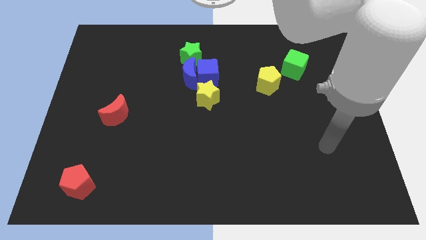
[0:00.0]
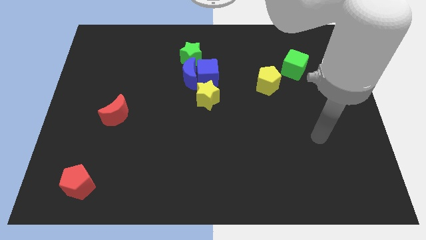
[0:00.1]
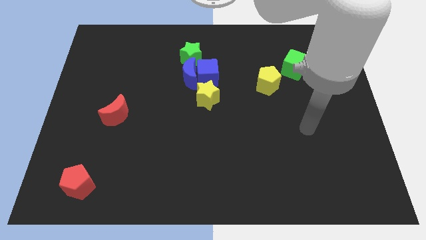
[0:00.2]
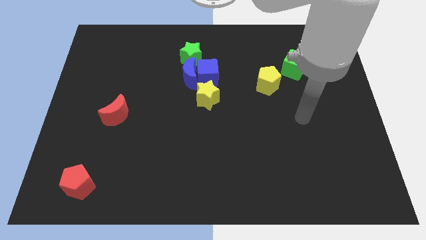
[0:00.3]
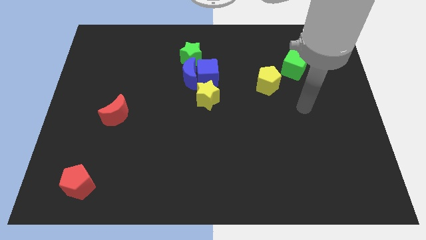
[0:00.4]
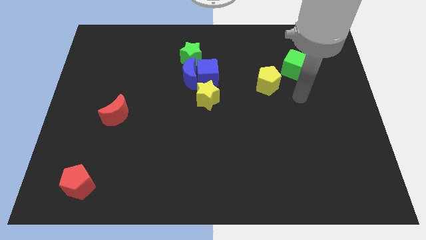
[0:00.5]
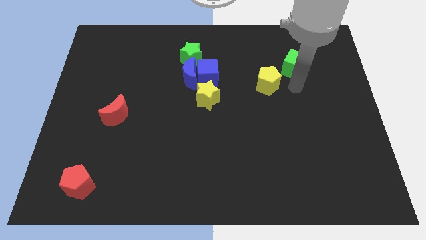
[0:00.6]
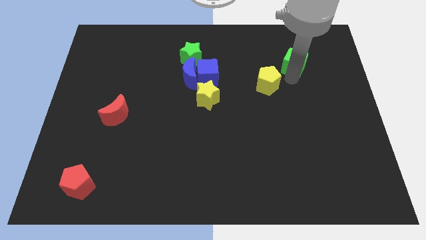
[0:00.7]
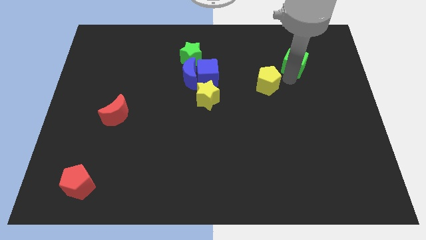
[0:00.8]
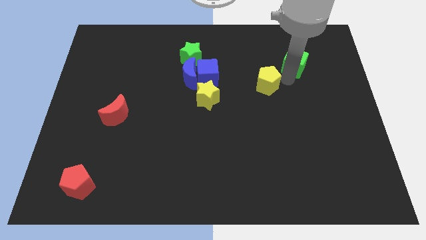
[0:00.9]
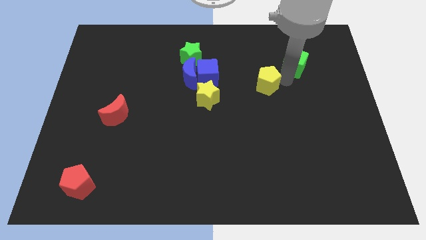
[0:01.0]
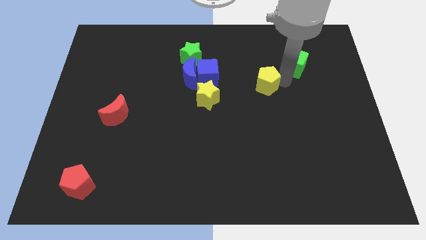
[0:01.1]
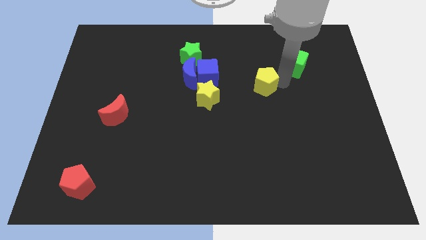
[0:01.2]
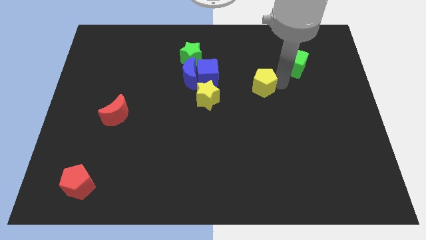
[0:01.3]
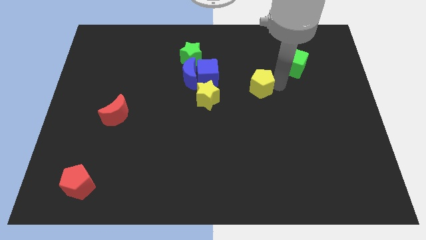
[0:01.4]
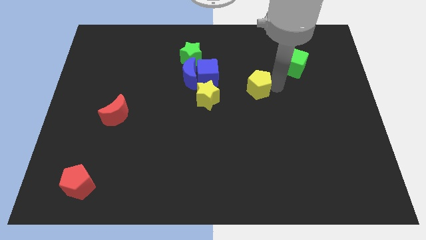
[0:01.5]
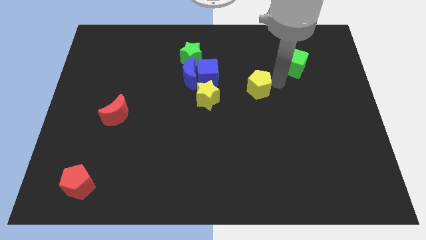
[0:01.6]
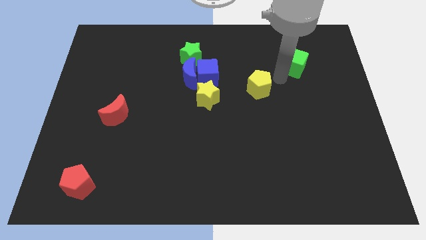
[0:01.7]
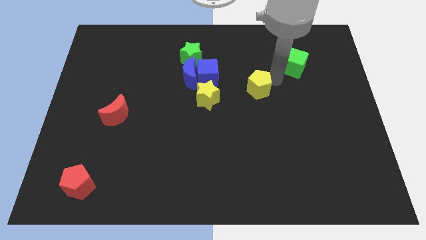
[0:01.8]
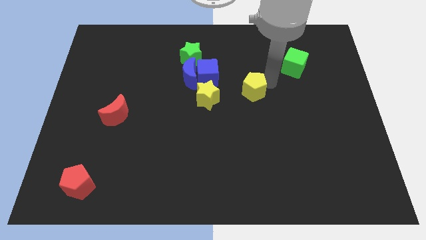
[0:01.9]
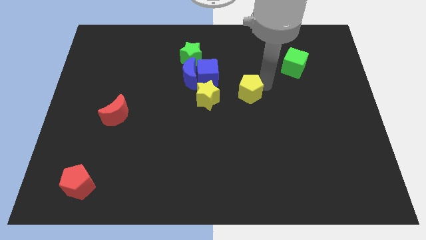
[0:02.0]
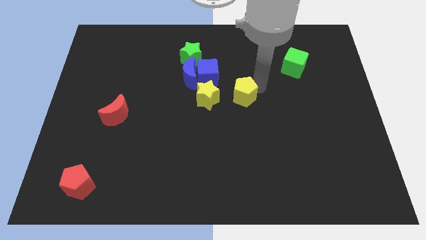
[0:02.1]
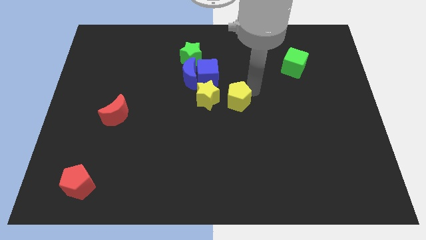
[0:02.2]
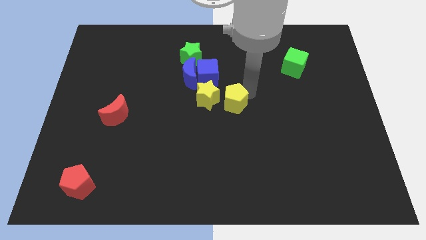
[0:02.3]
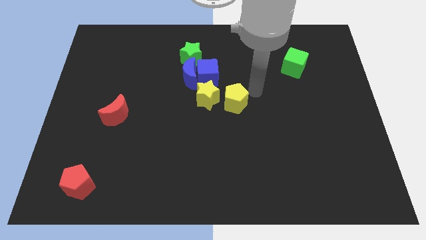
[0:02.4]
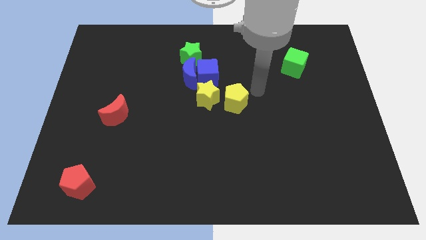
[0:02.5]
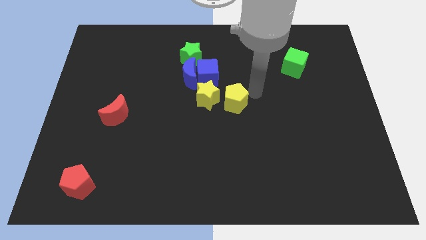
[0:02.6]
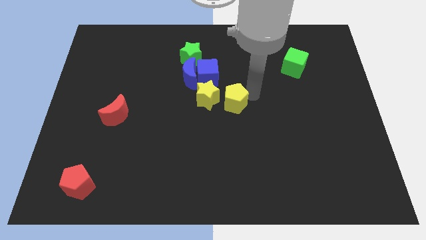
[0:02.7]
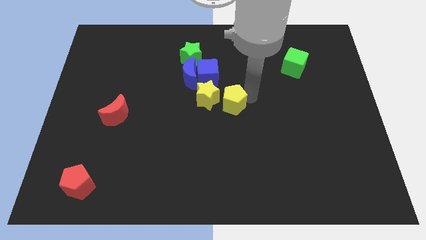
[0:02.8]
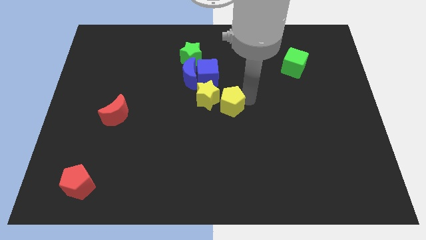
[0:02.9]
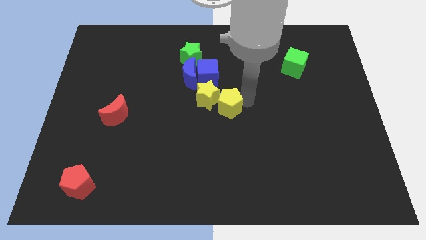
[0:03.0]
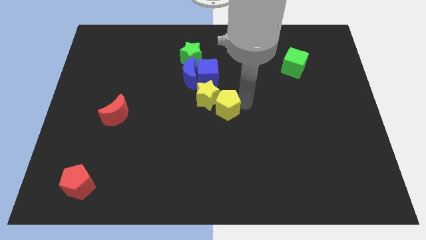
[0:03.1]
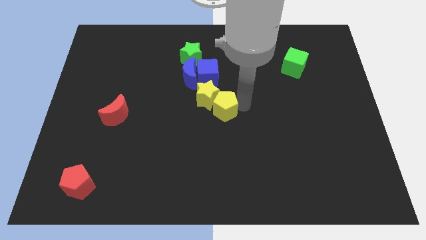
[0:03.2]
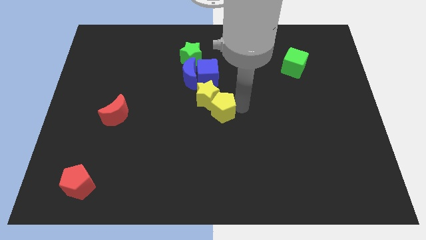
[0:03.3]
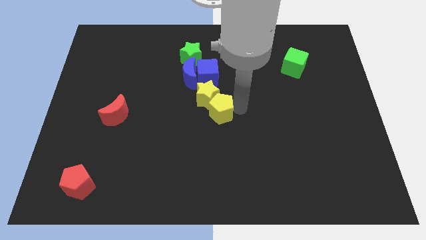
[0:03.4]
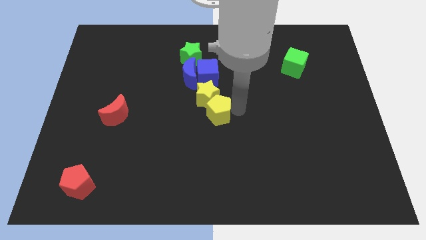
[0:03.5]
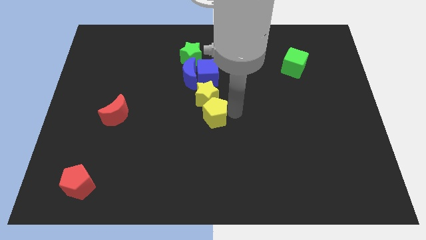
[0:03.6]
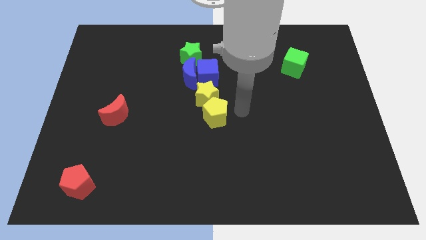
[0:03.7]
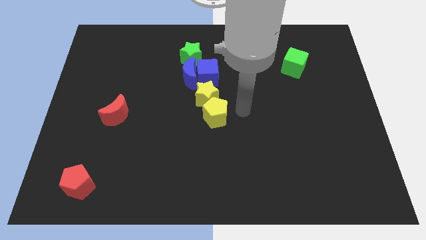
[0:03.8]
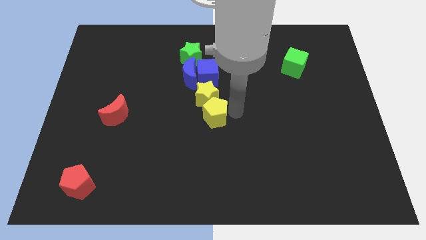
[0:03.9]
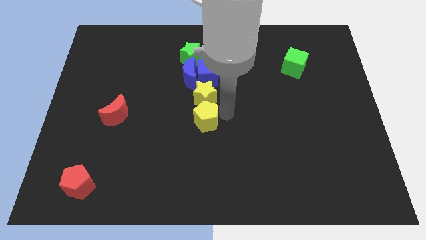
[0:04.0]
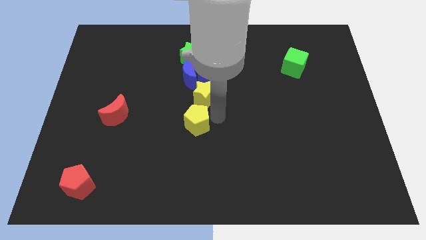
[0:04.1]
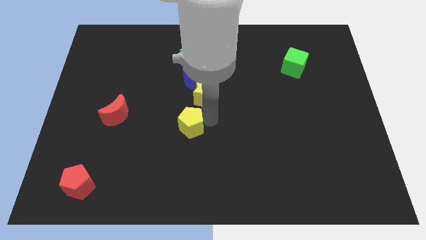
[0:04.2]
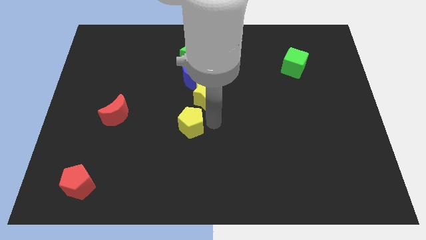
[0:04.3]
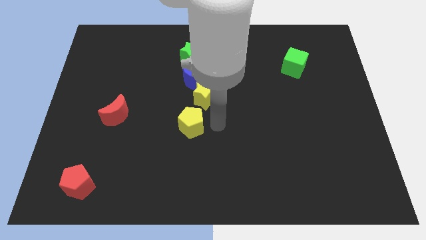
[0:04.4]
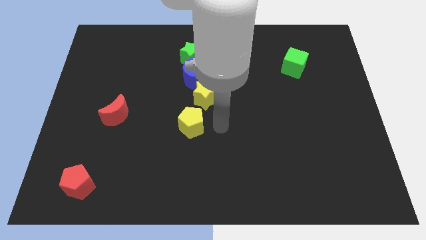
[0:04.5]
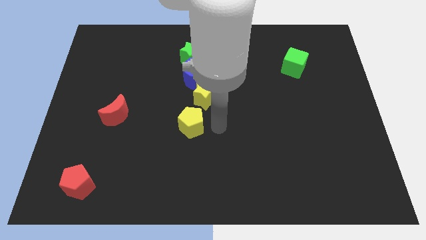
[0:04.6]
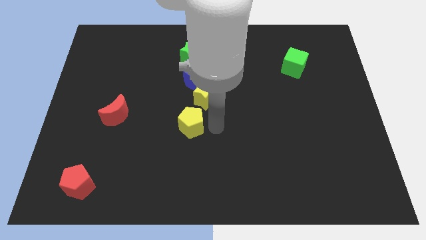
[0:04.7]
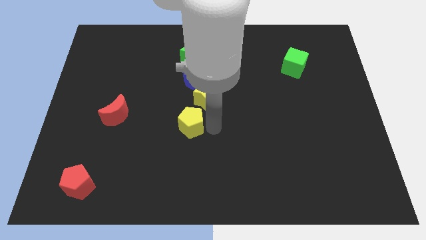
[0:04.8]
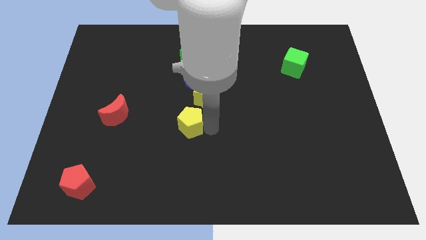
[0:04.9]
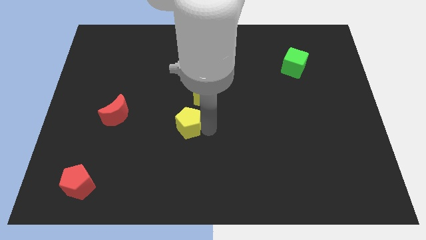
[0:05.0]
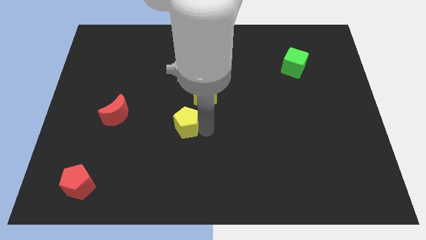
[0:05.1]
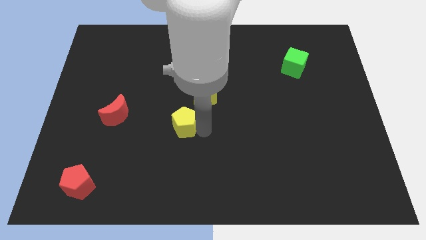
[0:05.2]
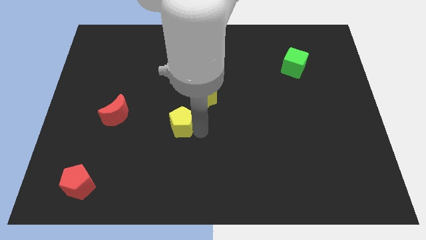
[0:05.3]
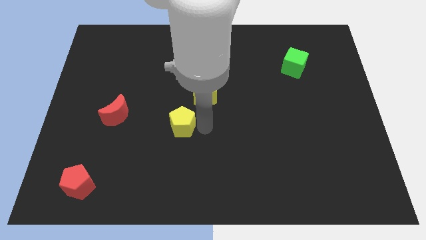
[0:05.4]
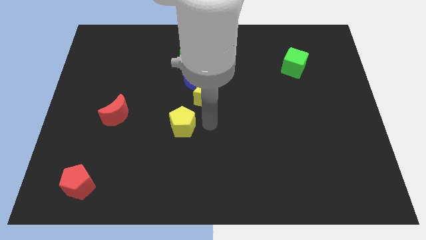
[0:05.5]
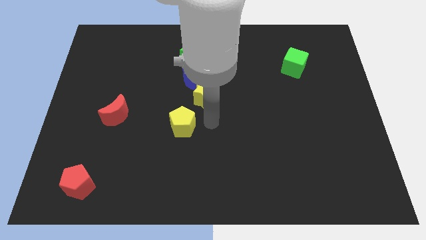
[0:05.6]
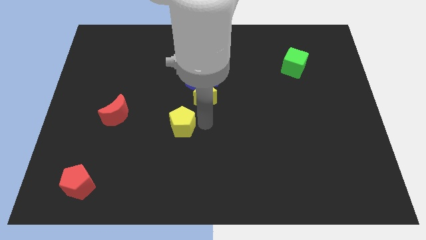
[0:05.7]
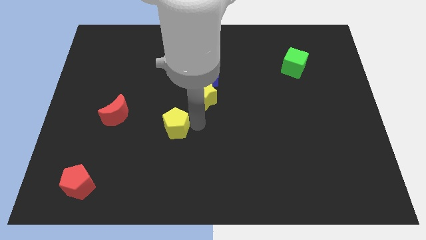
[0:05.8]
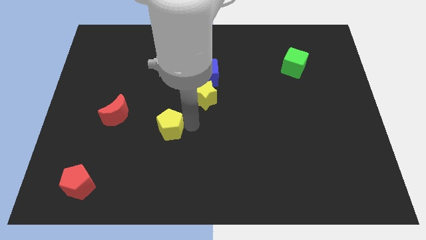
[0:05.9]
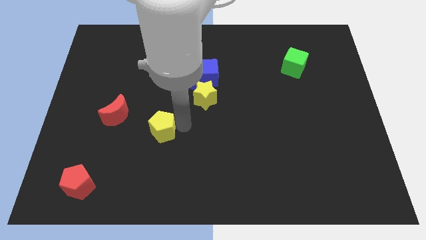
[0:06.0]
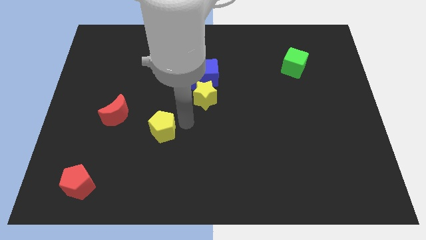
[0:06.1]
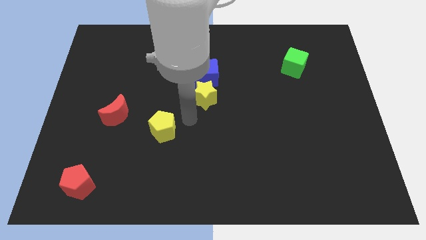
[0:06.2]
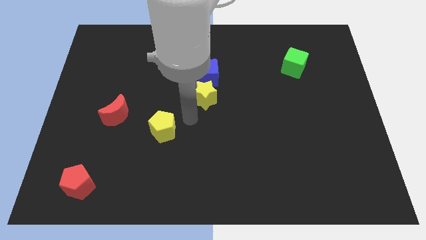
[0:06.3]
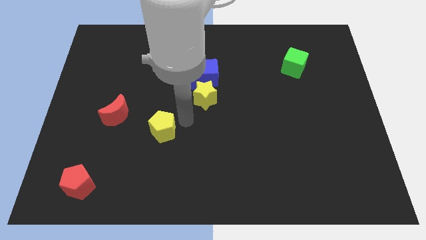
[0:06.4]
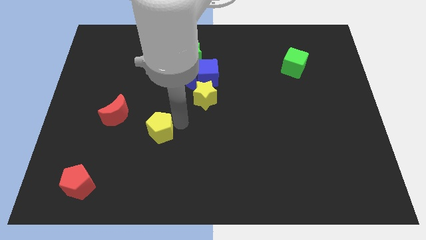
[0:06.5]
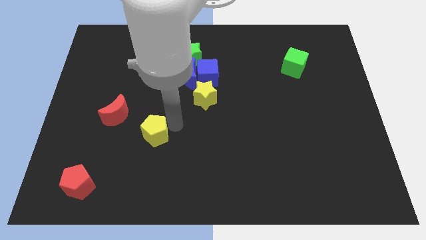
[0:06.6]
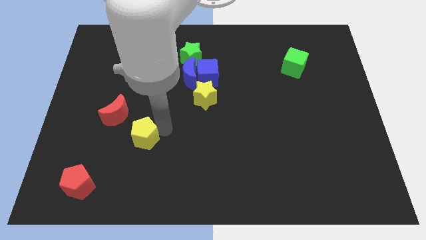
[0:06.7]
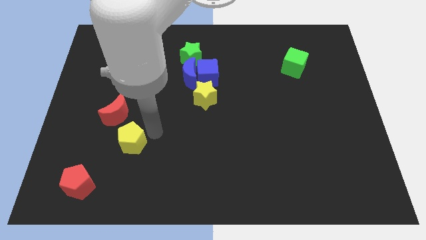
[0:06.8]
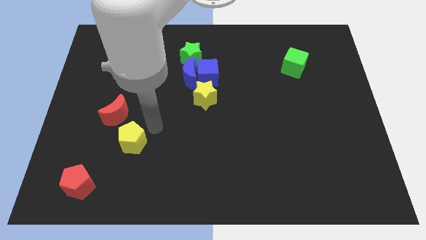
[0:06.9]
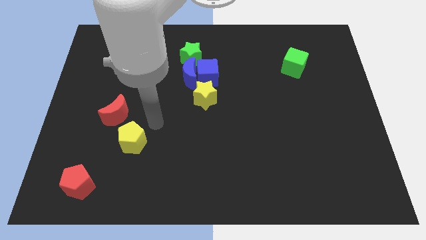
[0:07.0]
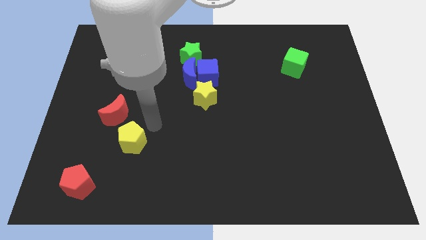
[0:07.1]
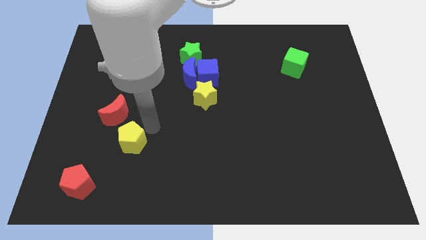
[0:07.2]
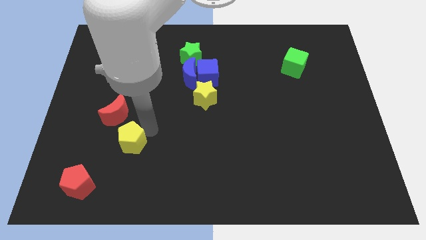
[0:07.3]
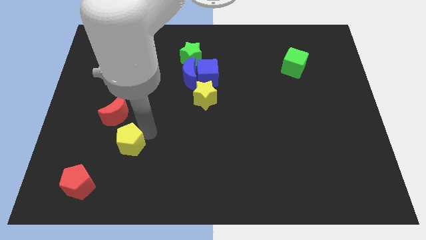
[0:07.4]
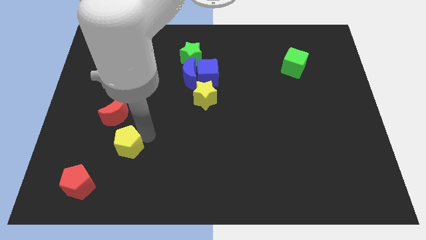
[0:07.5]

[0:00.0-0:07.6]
move the yellow pentagon to the top right of the red pentagon
